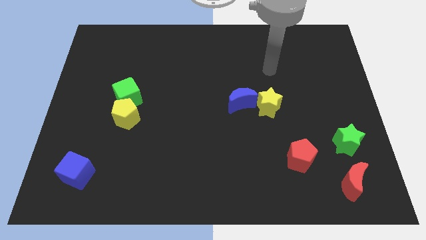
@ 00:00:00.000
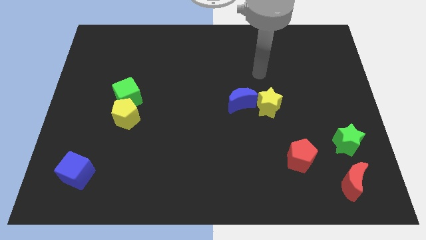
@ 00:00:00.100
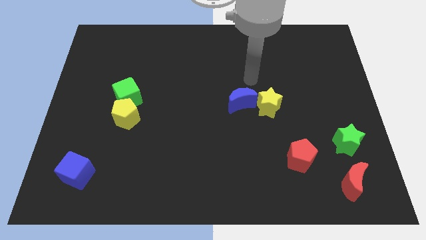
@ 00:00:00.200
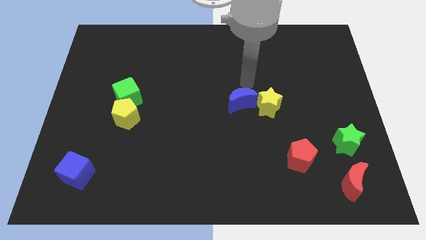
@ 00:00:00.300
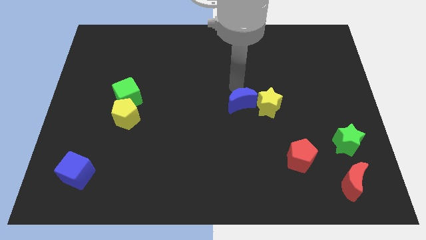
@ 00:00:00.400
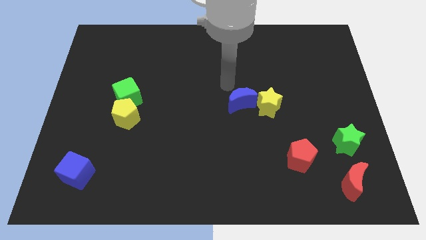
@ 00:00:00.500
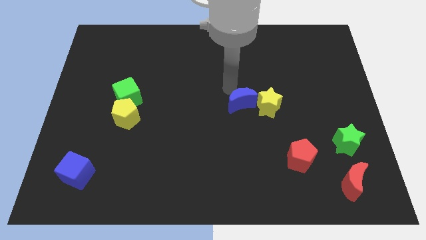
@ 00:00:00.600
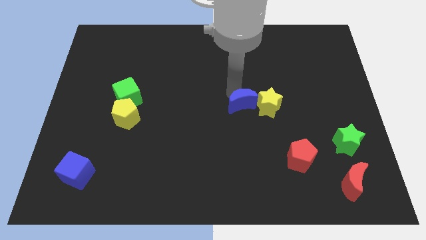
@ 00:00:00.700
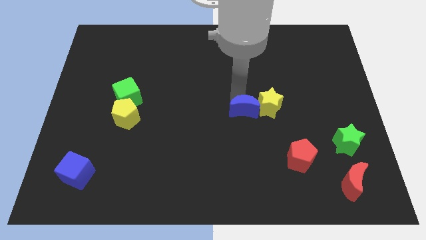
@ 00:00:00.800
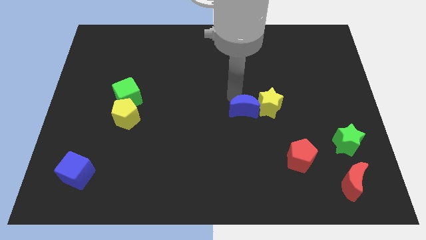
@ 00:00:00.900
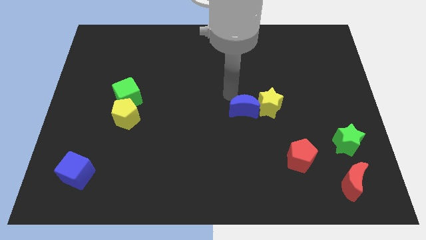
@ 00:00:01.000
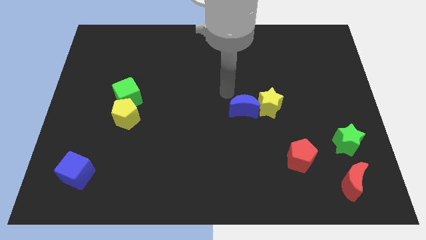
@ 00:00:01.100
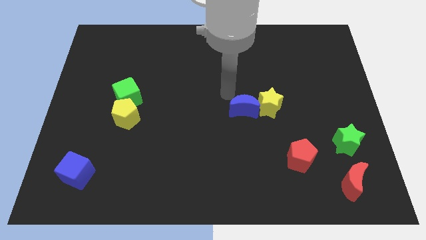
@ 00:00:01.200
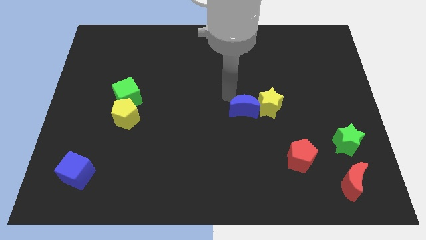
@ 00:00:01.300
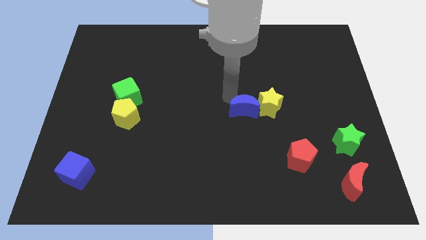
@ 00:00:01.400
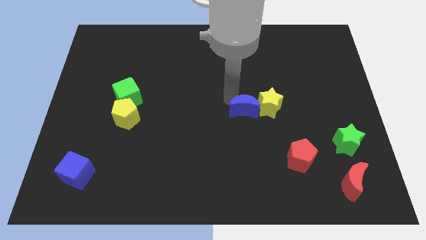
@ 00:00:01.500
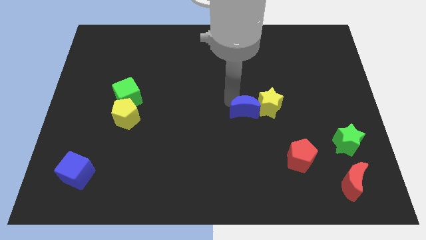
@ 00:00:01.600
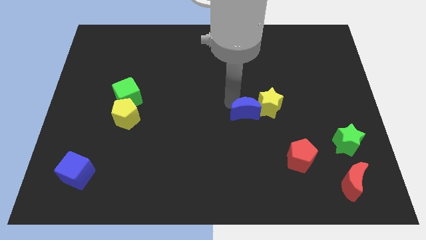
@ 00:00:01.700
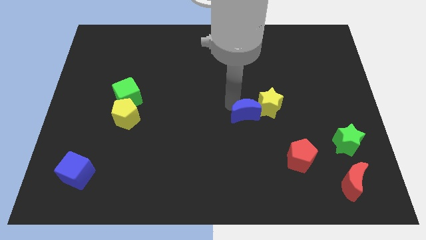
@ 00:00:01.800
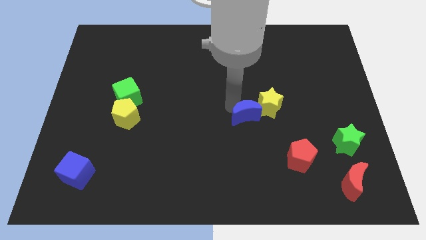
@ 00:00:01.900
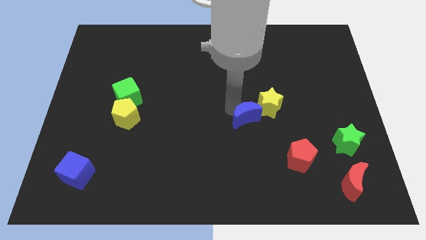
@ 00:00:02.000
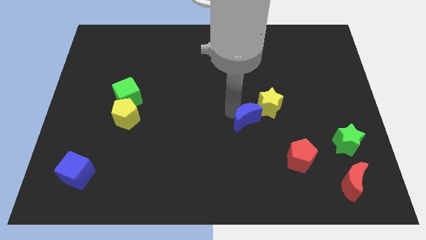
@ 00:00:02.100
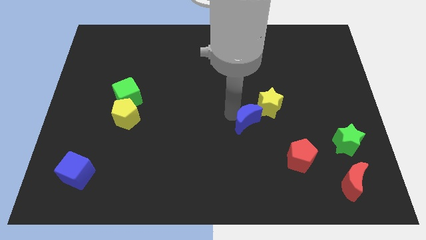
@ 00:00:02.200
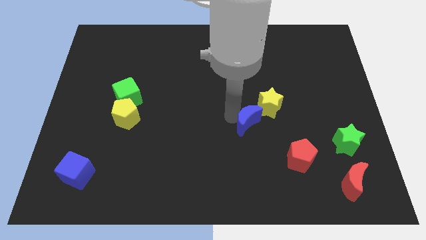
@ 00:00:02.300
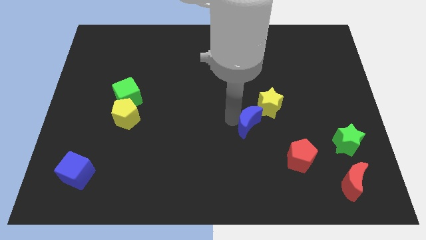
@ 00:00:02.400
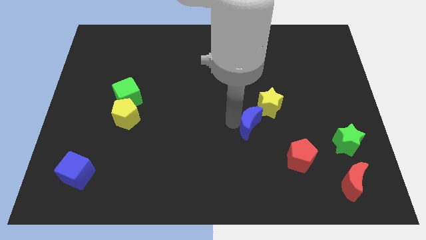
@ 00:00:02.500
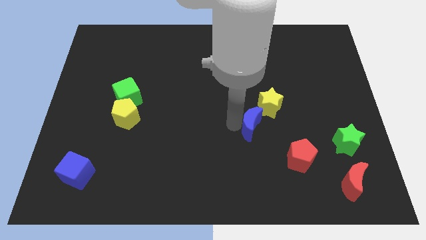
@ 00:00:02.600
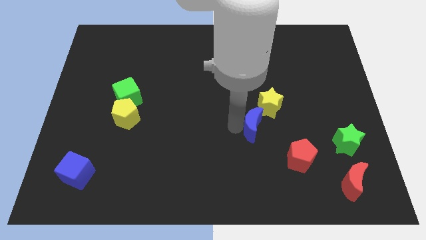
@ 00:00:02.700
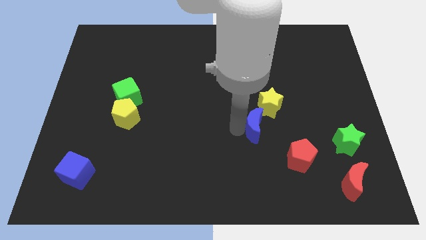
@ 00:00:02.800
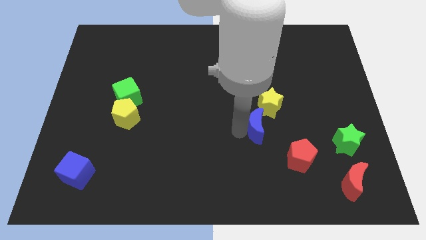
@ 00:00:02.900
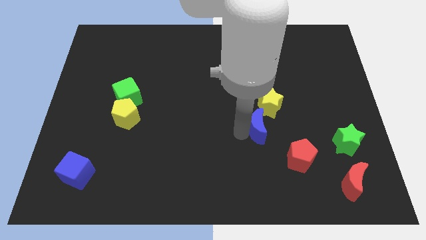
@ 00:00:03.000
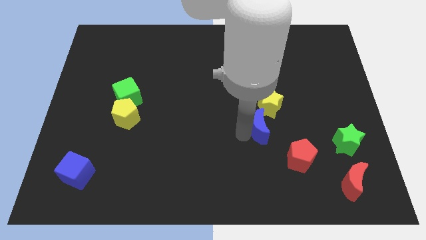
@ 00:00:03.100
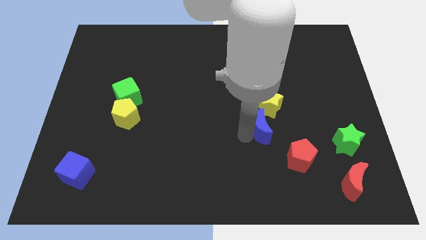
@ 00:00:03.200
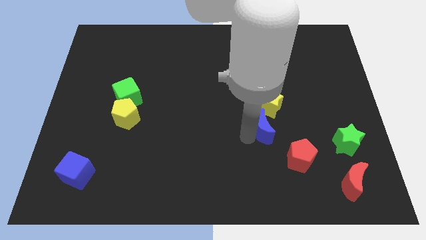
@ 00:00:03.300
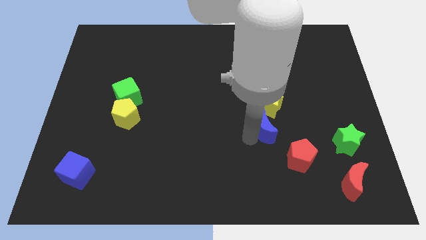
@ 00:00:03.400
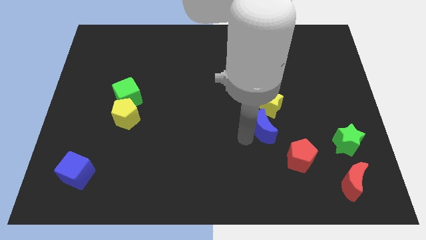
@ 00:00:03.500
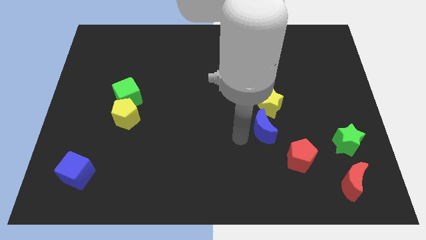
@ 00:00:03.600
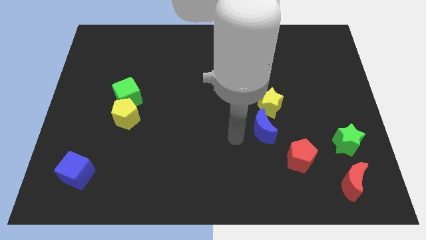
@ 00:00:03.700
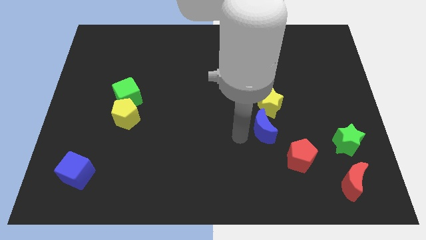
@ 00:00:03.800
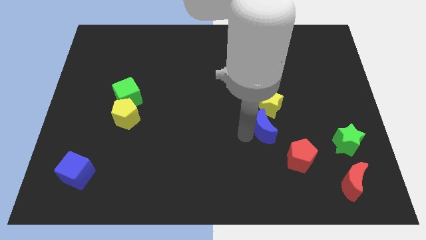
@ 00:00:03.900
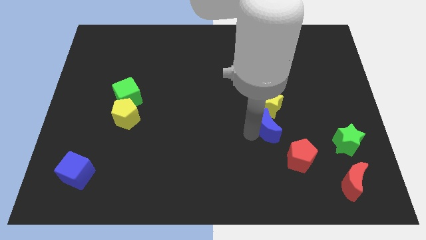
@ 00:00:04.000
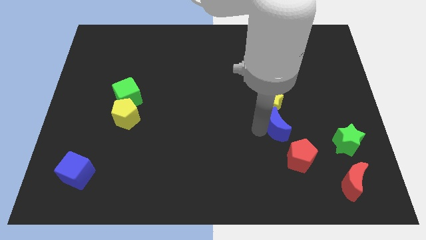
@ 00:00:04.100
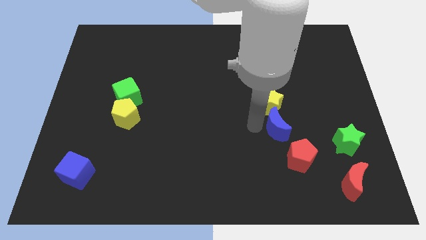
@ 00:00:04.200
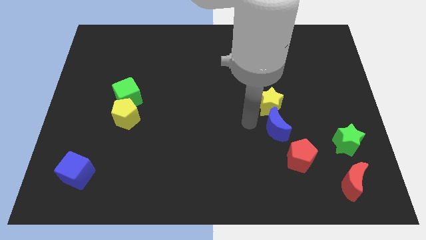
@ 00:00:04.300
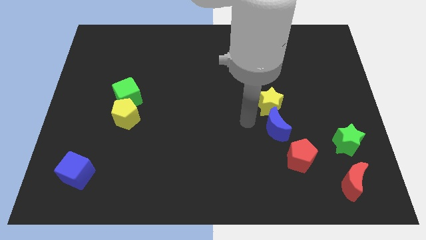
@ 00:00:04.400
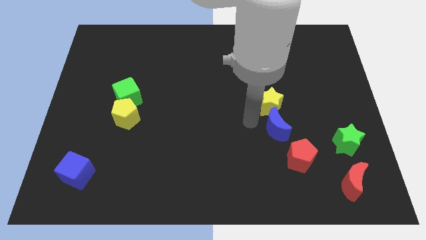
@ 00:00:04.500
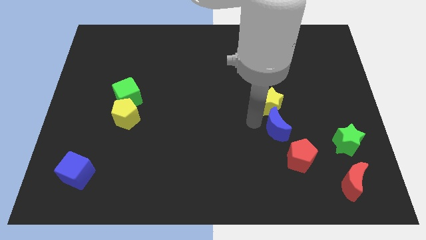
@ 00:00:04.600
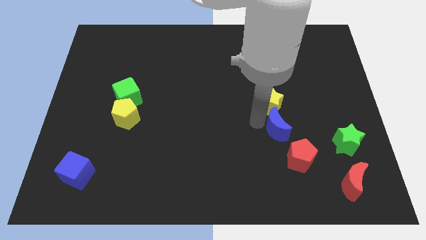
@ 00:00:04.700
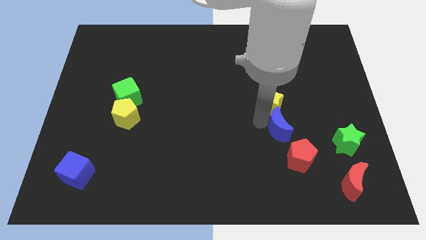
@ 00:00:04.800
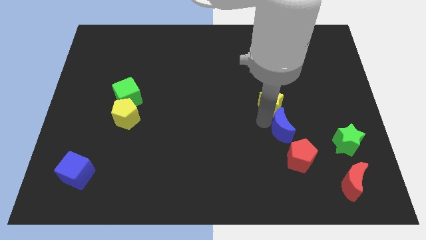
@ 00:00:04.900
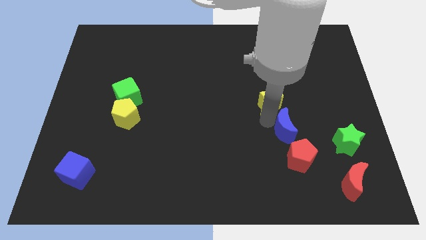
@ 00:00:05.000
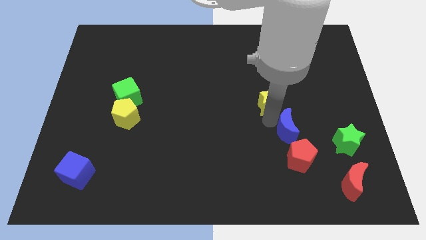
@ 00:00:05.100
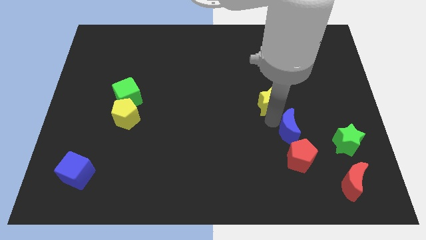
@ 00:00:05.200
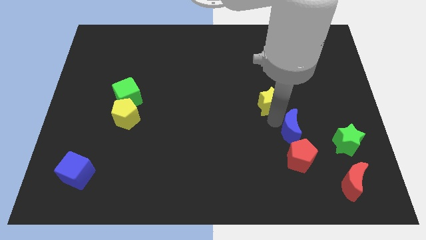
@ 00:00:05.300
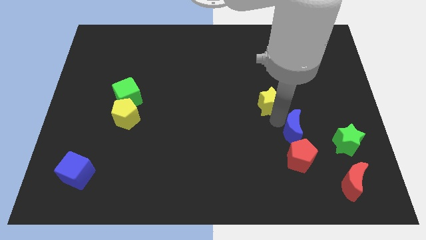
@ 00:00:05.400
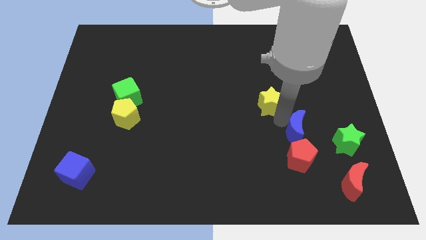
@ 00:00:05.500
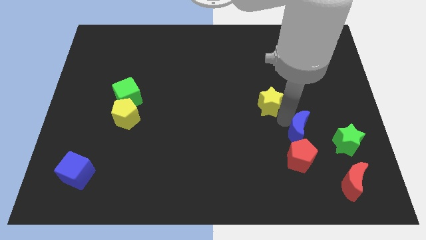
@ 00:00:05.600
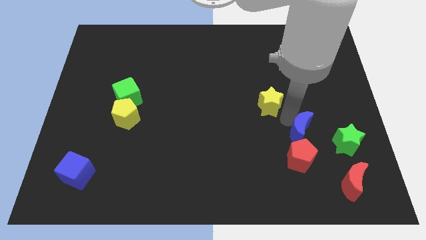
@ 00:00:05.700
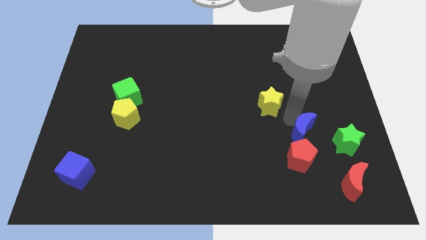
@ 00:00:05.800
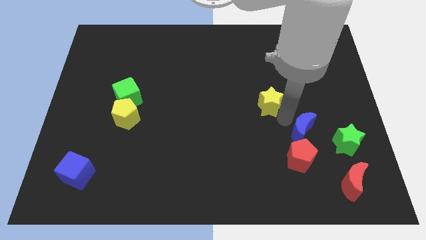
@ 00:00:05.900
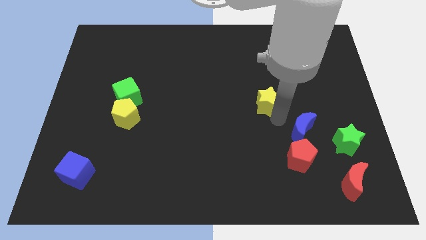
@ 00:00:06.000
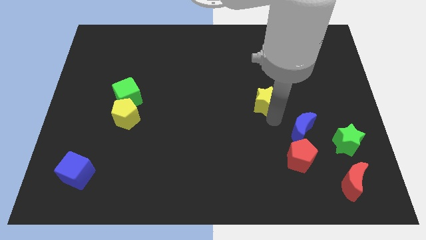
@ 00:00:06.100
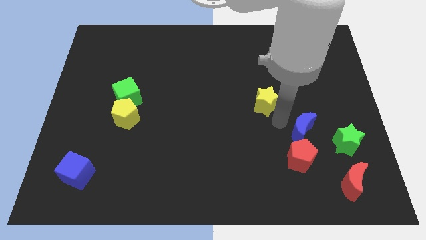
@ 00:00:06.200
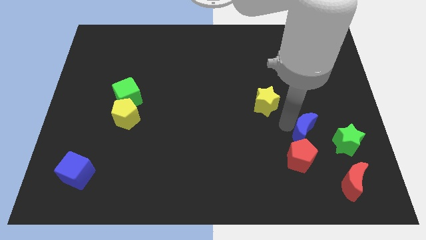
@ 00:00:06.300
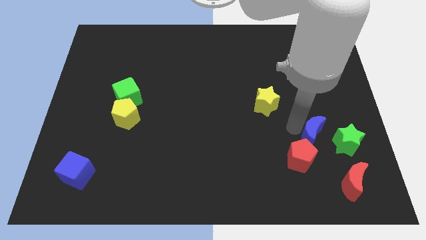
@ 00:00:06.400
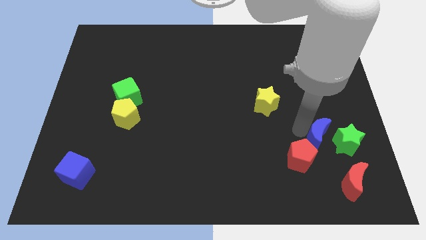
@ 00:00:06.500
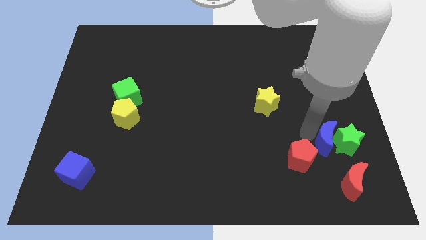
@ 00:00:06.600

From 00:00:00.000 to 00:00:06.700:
slide the blue moon towards the green star
